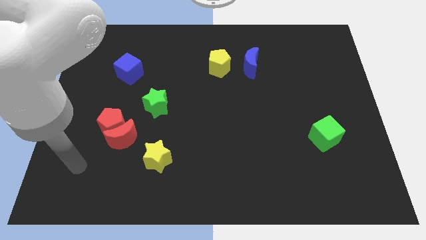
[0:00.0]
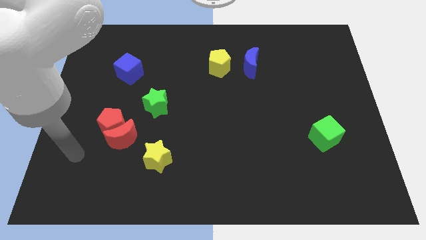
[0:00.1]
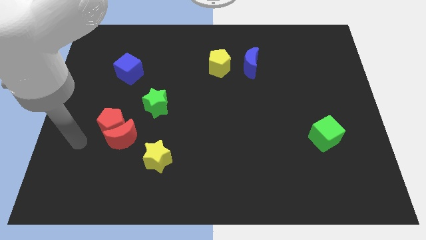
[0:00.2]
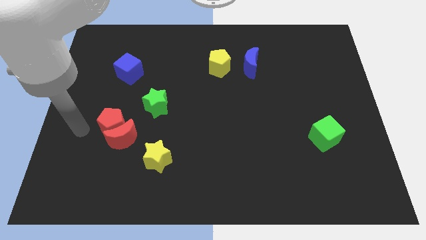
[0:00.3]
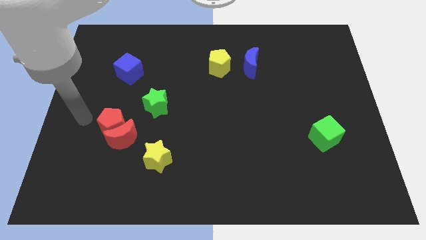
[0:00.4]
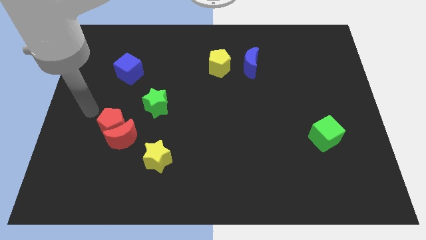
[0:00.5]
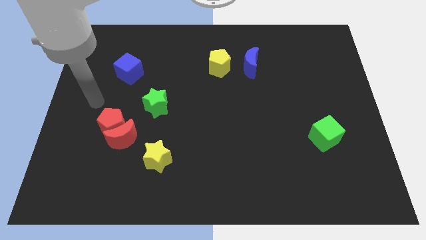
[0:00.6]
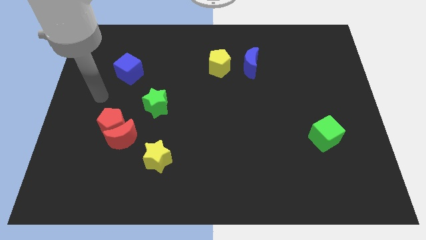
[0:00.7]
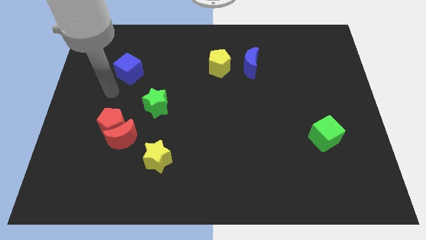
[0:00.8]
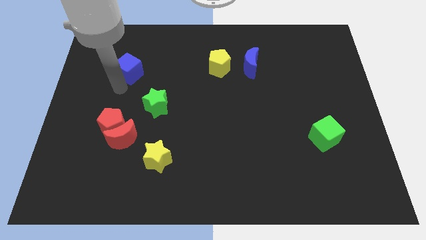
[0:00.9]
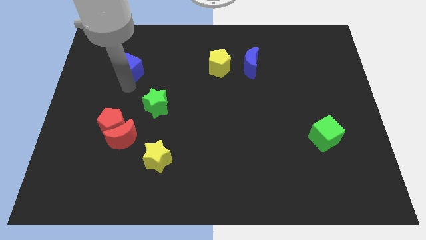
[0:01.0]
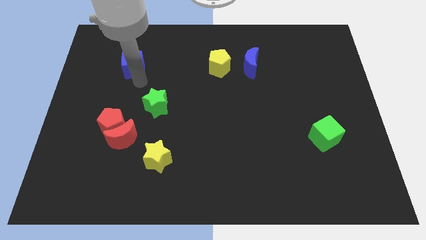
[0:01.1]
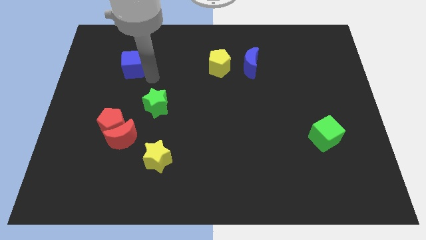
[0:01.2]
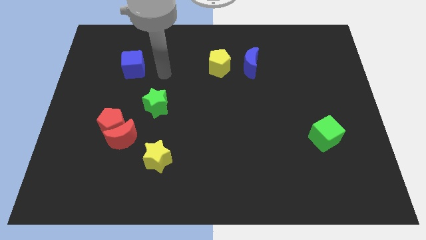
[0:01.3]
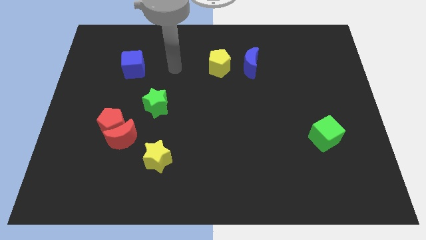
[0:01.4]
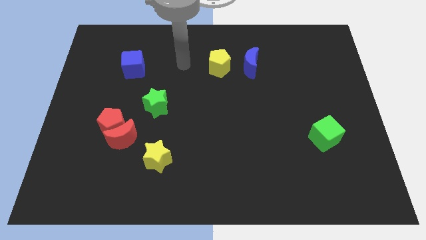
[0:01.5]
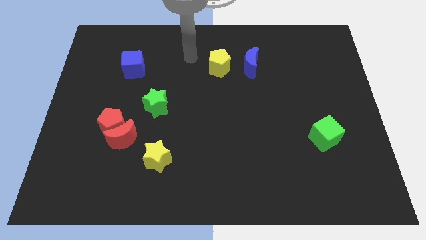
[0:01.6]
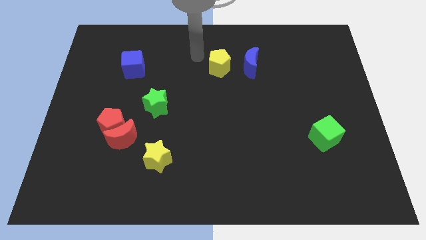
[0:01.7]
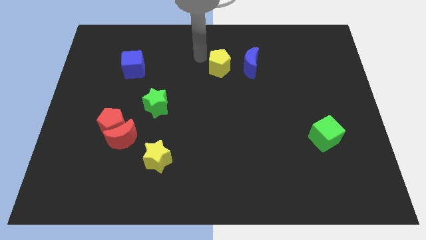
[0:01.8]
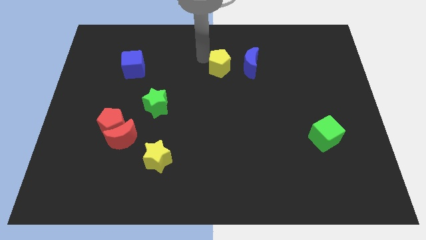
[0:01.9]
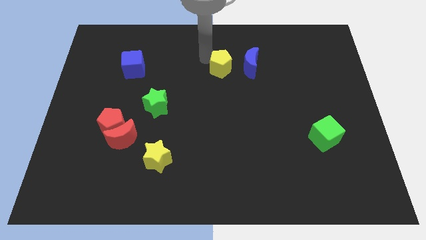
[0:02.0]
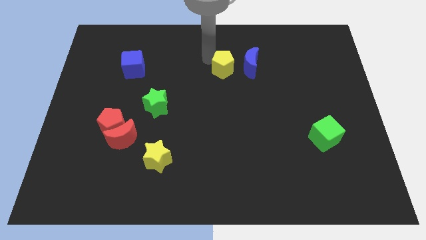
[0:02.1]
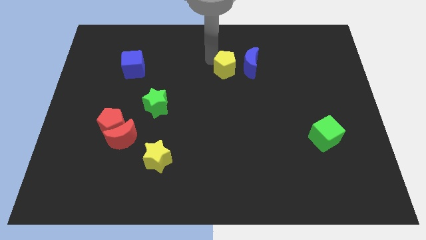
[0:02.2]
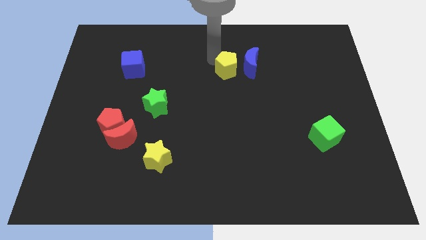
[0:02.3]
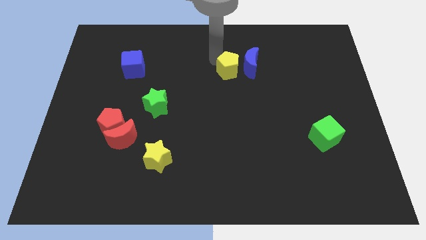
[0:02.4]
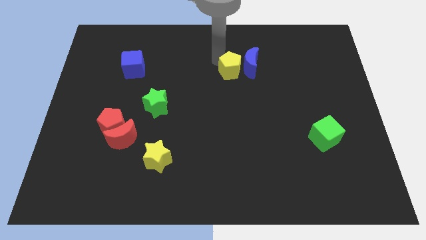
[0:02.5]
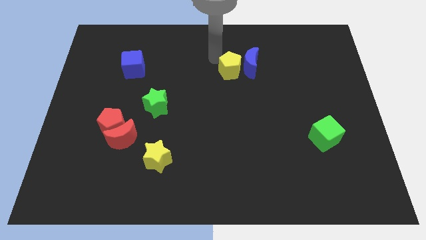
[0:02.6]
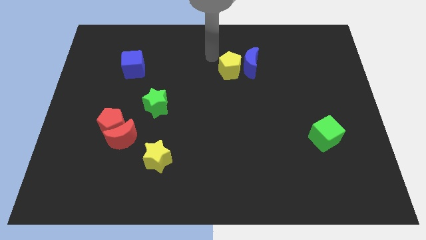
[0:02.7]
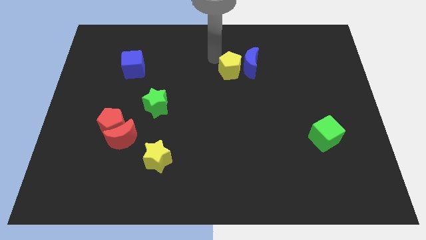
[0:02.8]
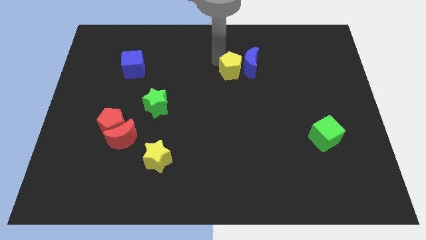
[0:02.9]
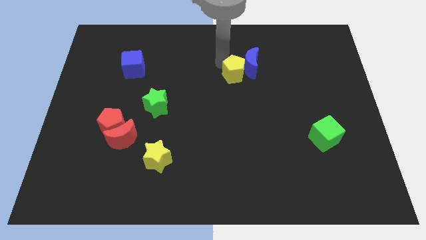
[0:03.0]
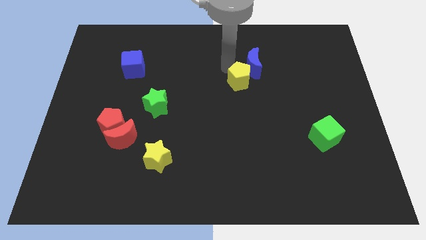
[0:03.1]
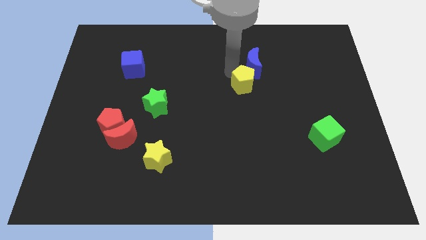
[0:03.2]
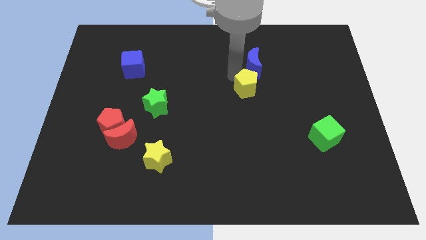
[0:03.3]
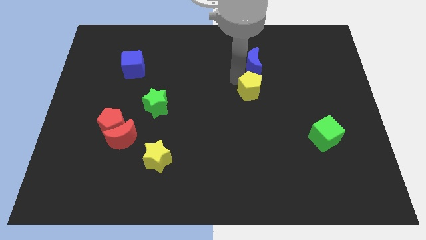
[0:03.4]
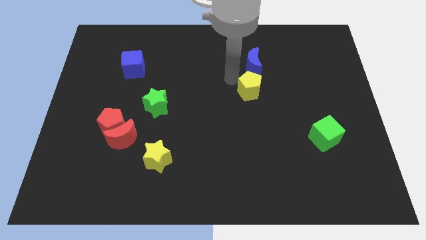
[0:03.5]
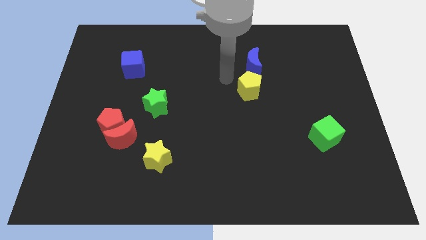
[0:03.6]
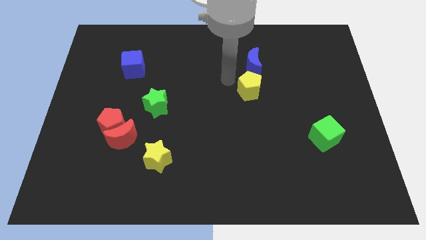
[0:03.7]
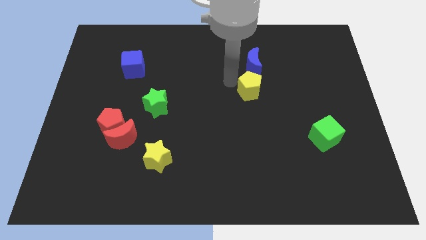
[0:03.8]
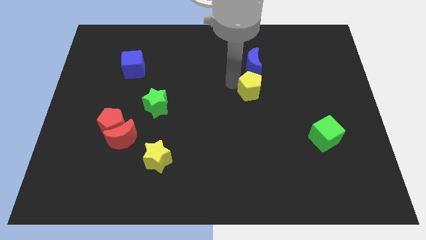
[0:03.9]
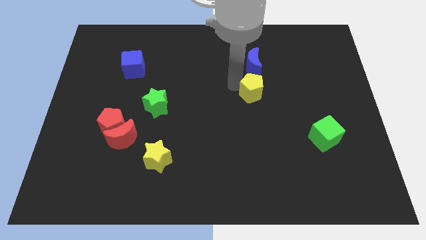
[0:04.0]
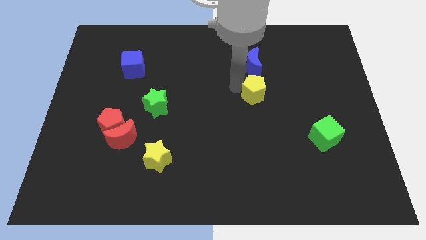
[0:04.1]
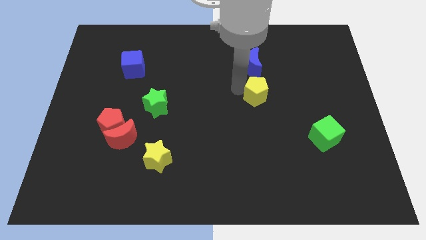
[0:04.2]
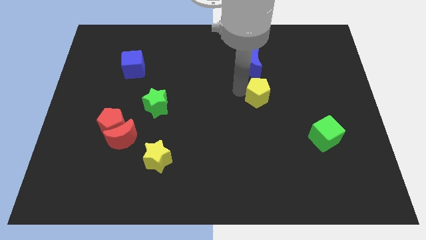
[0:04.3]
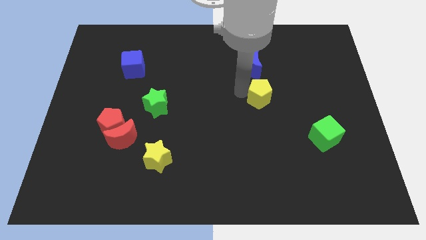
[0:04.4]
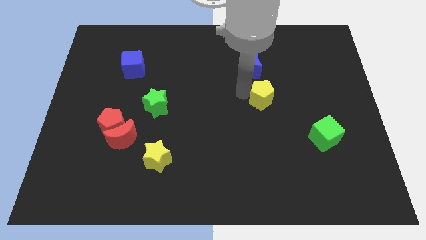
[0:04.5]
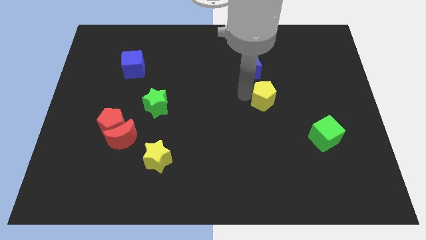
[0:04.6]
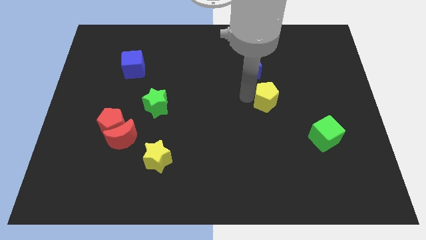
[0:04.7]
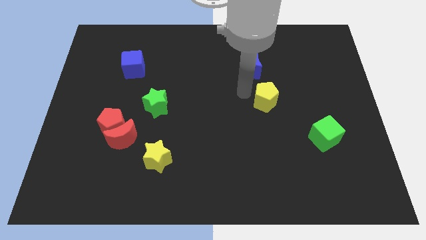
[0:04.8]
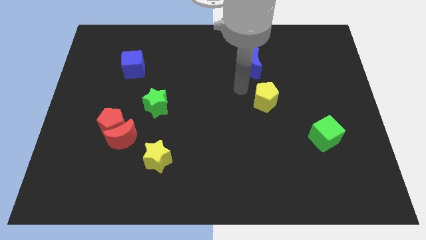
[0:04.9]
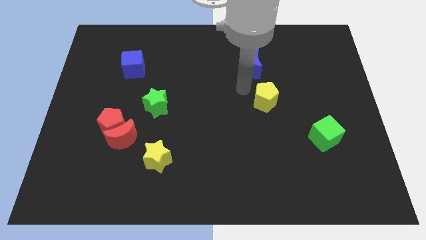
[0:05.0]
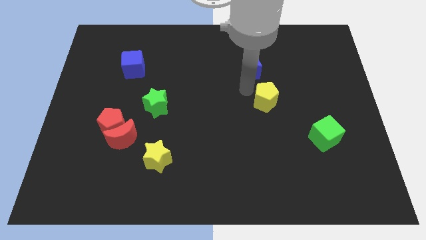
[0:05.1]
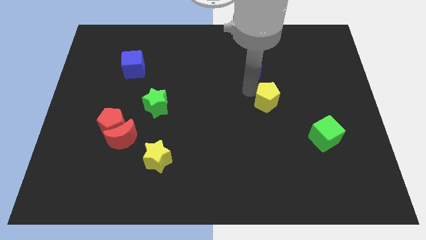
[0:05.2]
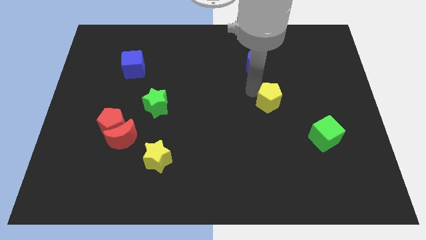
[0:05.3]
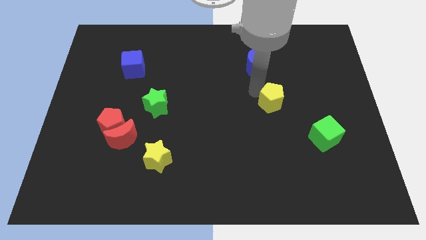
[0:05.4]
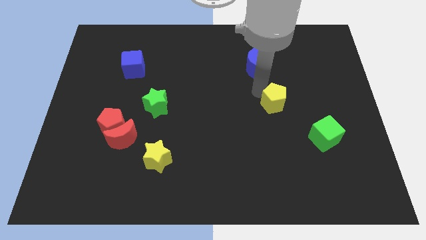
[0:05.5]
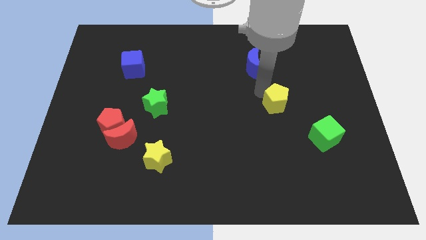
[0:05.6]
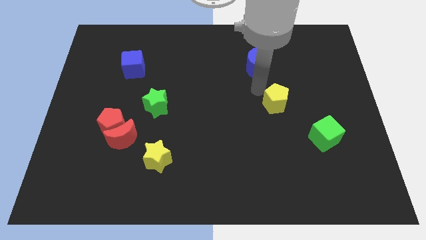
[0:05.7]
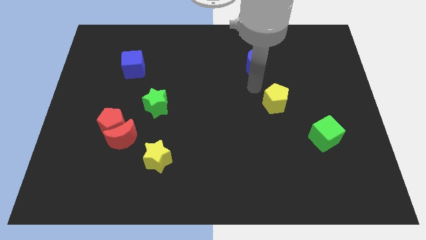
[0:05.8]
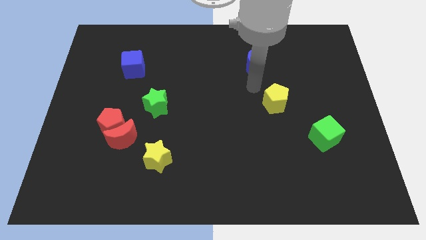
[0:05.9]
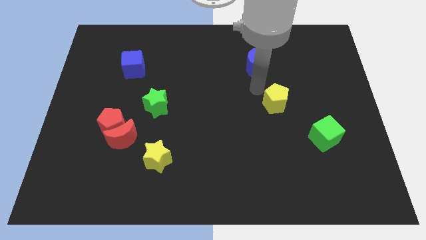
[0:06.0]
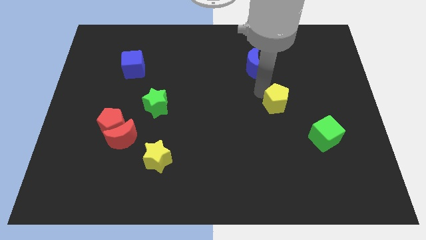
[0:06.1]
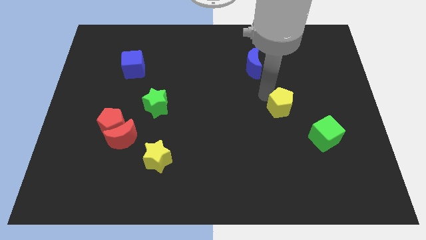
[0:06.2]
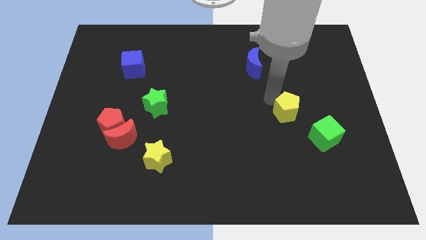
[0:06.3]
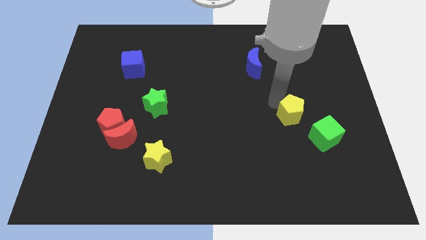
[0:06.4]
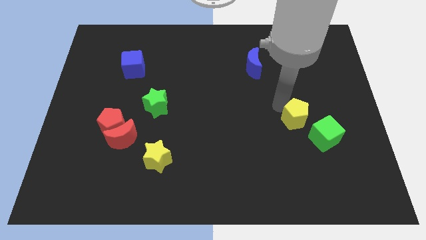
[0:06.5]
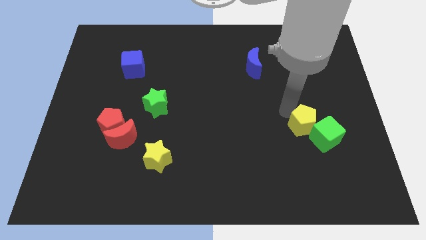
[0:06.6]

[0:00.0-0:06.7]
slide the yellow pentagon close to the green cube

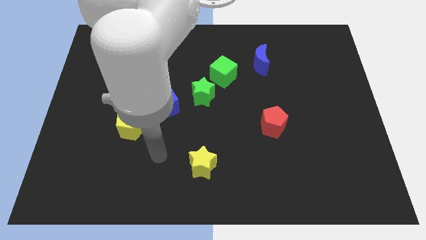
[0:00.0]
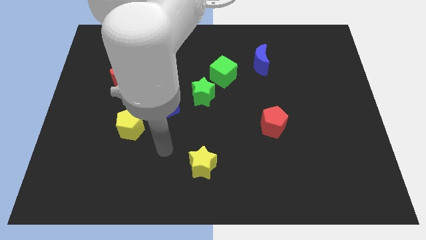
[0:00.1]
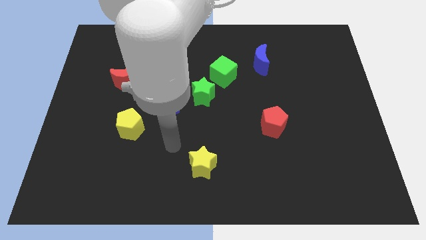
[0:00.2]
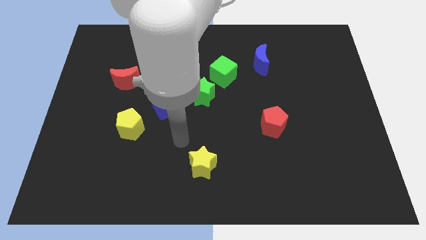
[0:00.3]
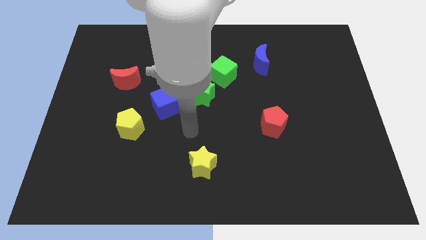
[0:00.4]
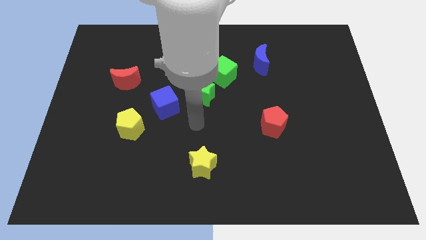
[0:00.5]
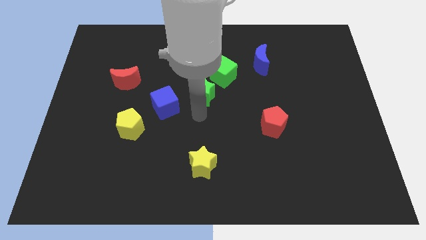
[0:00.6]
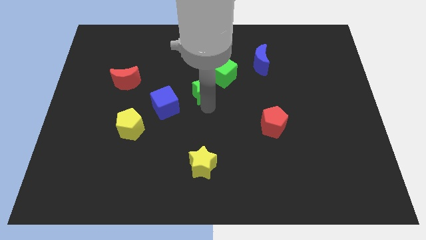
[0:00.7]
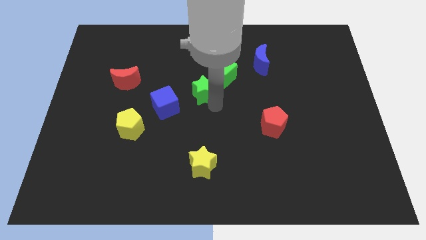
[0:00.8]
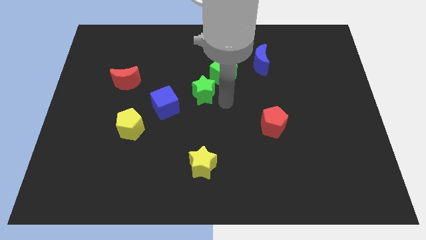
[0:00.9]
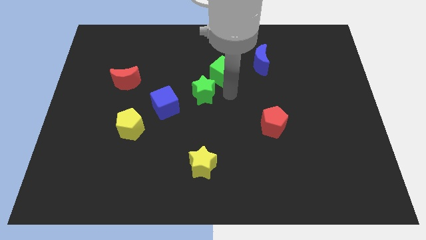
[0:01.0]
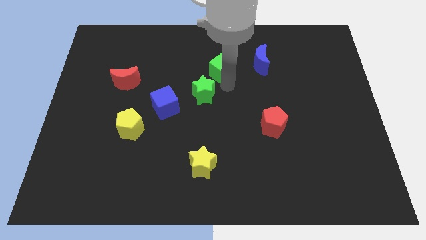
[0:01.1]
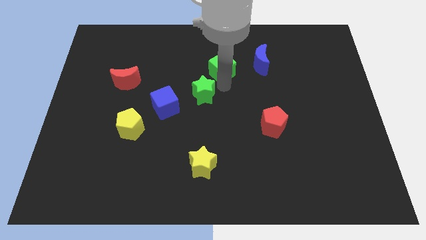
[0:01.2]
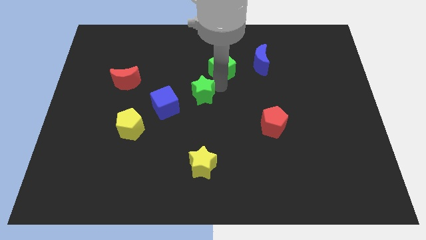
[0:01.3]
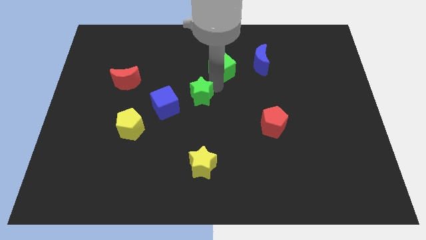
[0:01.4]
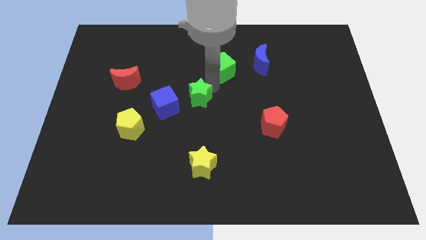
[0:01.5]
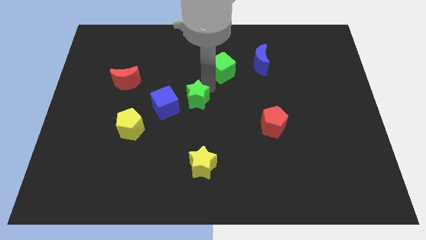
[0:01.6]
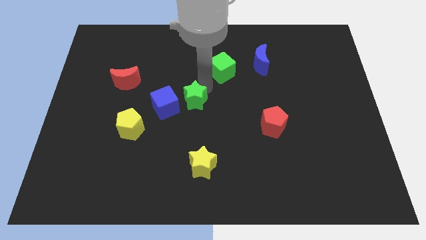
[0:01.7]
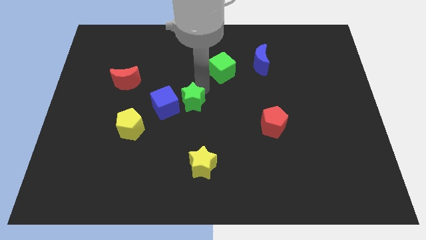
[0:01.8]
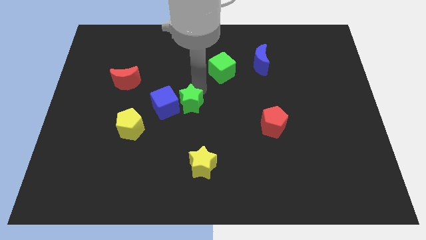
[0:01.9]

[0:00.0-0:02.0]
put the green star to the blue cube
